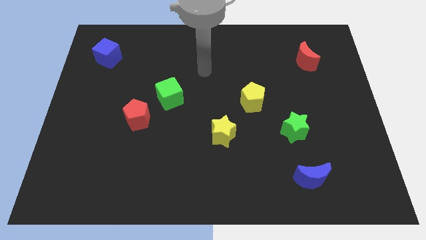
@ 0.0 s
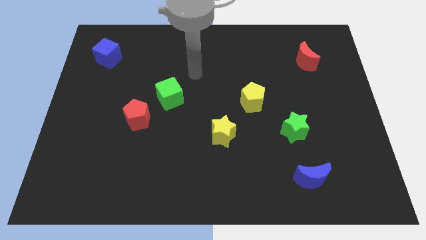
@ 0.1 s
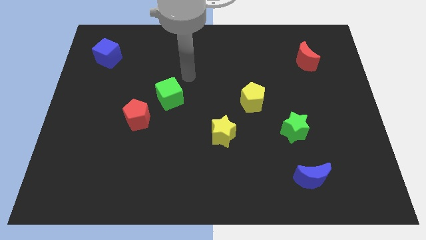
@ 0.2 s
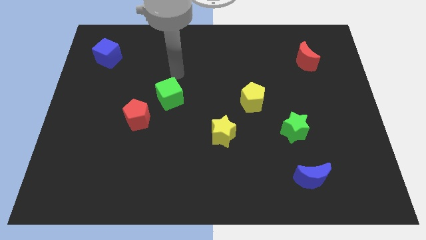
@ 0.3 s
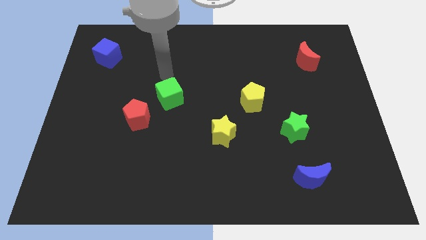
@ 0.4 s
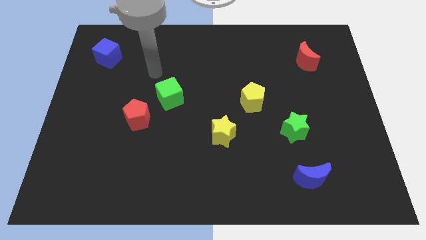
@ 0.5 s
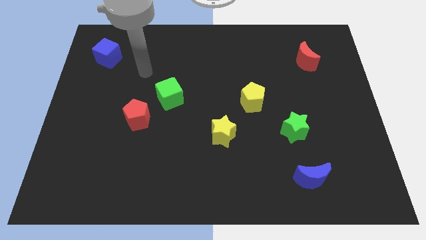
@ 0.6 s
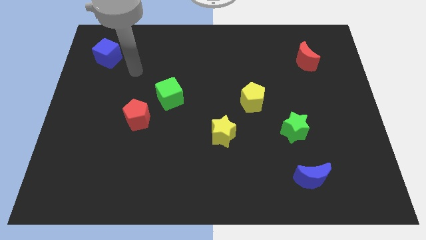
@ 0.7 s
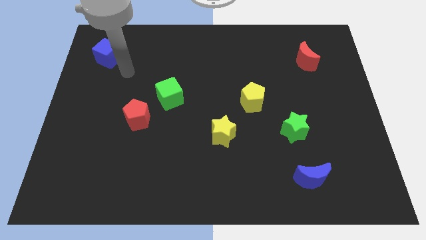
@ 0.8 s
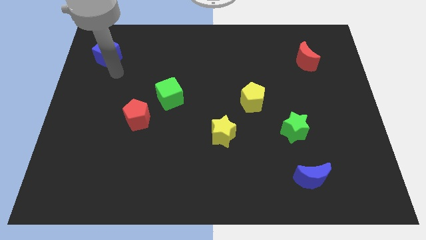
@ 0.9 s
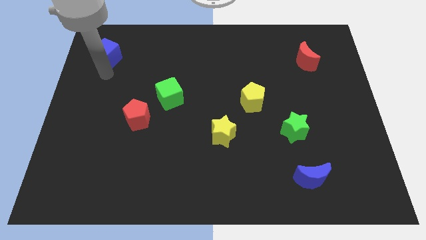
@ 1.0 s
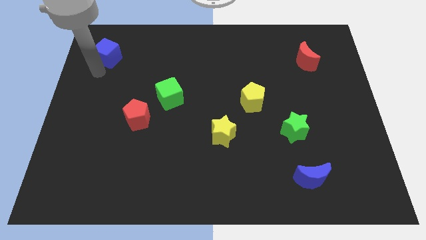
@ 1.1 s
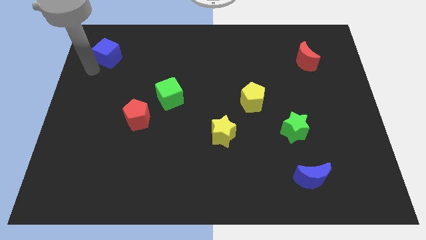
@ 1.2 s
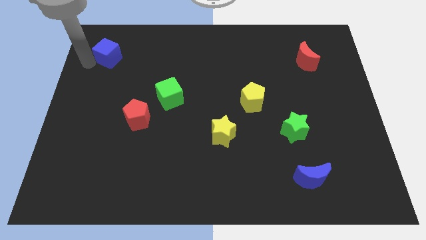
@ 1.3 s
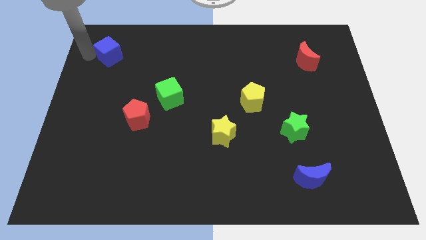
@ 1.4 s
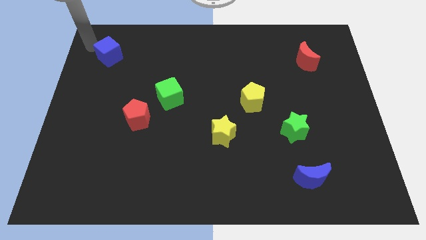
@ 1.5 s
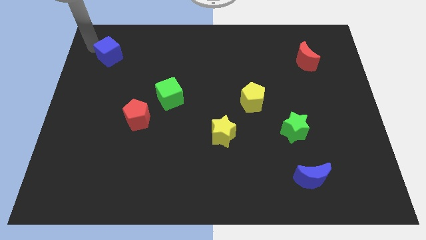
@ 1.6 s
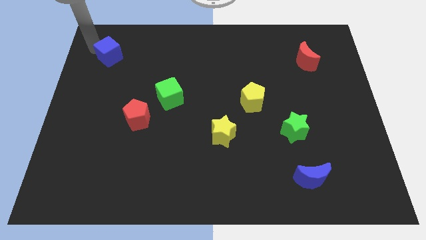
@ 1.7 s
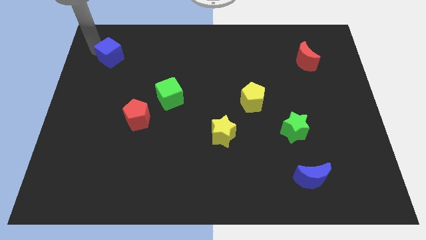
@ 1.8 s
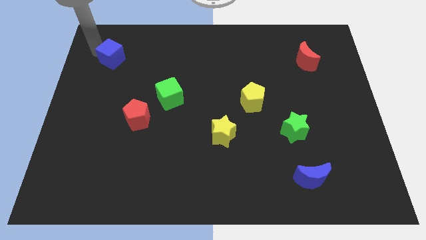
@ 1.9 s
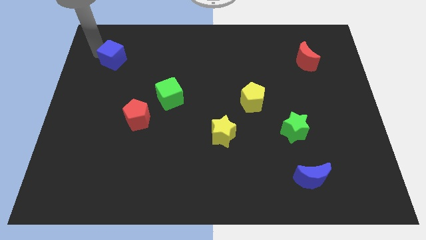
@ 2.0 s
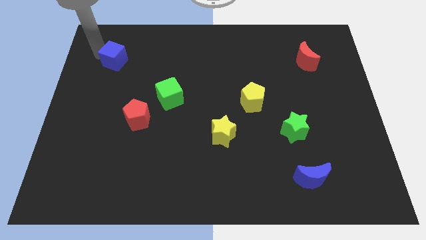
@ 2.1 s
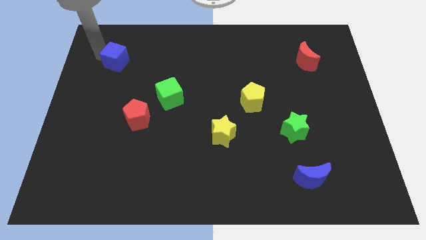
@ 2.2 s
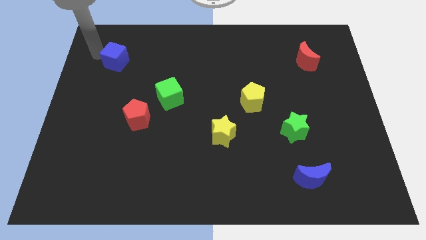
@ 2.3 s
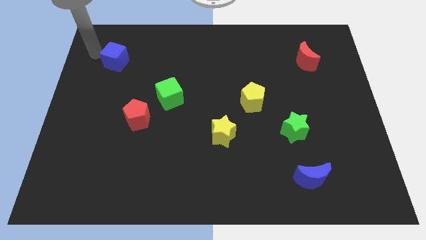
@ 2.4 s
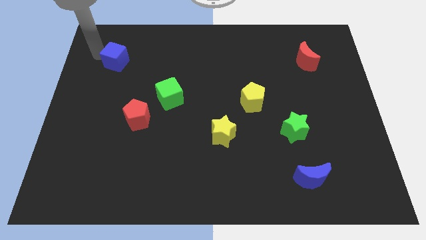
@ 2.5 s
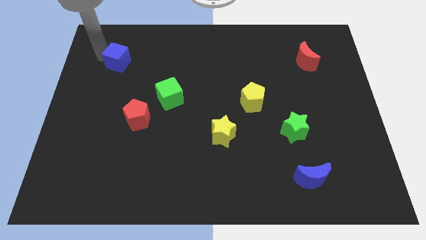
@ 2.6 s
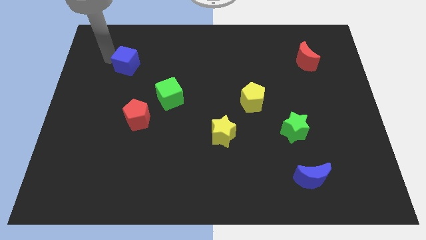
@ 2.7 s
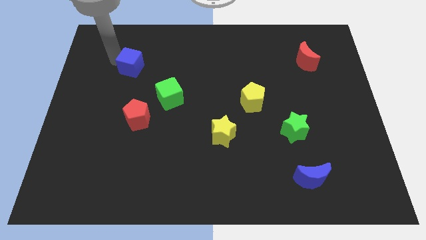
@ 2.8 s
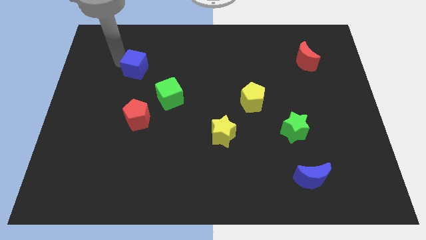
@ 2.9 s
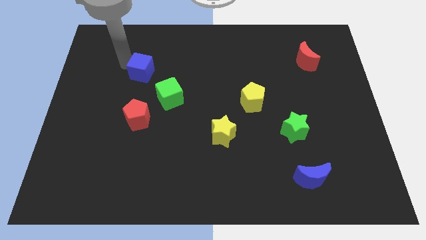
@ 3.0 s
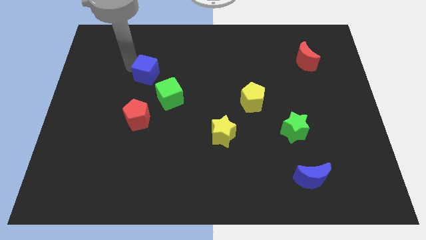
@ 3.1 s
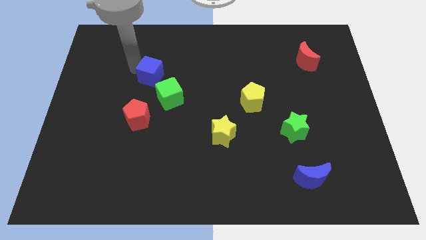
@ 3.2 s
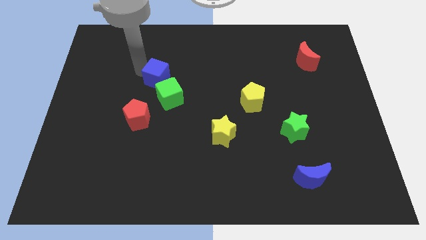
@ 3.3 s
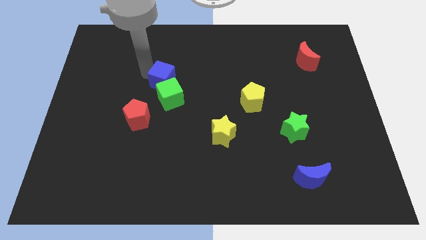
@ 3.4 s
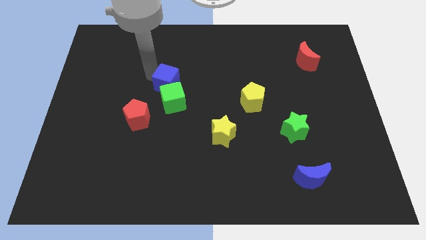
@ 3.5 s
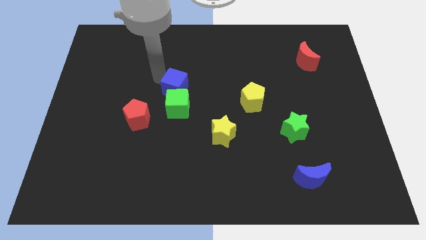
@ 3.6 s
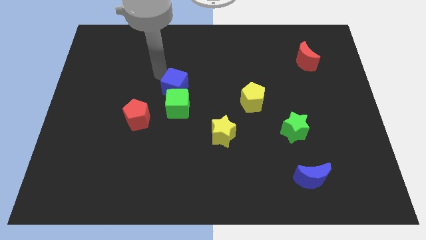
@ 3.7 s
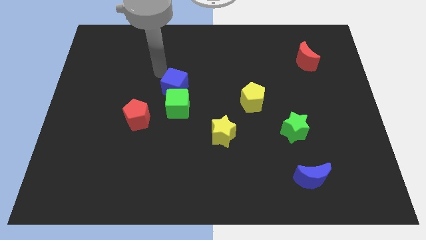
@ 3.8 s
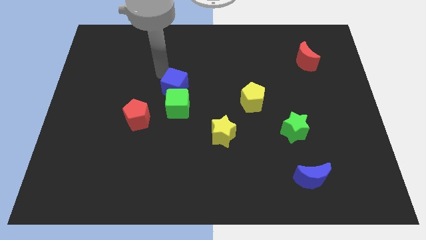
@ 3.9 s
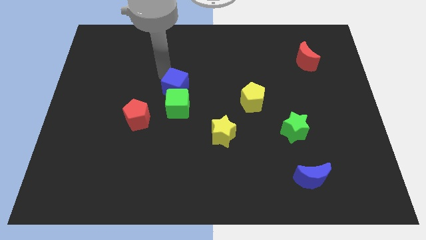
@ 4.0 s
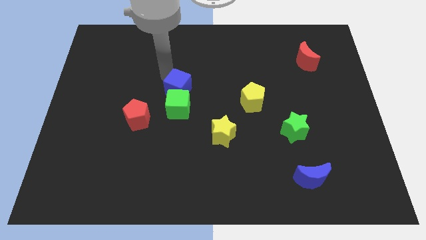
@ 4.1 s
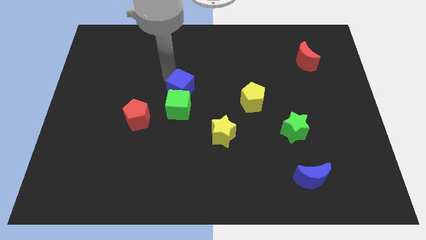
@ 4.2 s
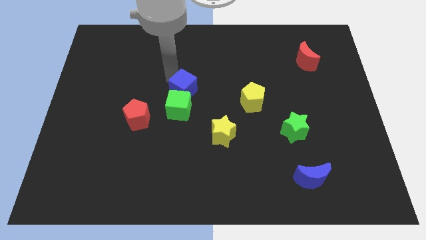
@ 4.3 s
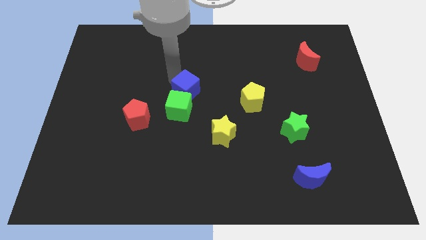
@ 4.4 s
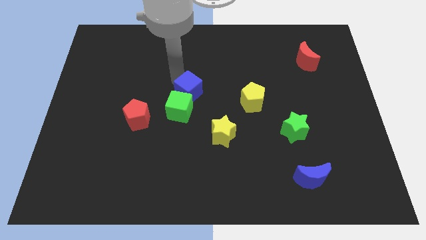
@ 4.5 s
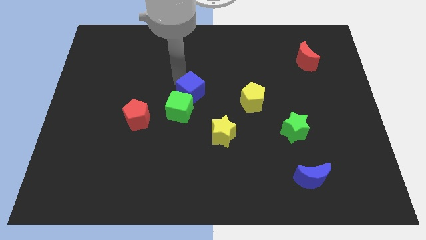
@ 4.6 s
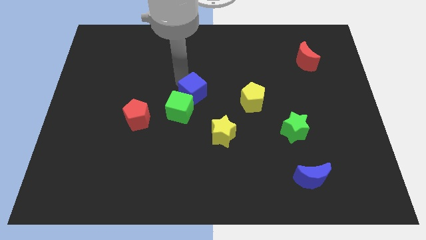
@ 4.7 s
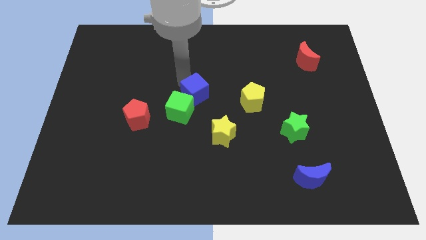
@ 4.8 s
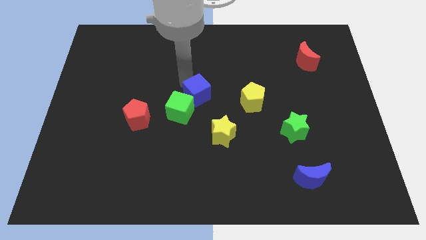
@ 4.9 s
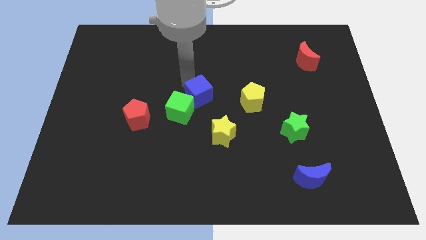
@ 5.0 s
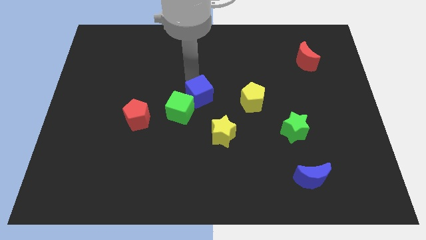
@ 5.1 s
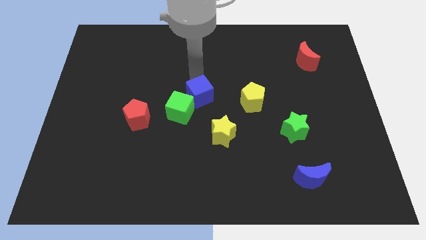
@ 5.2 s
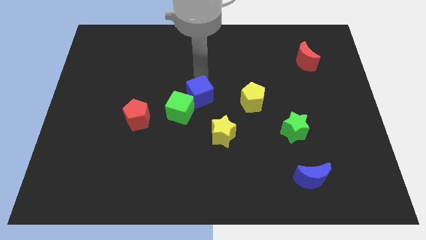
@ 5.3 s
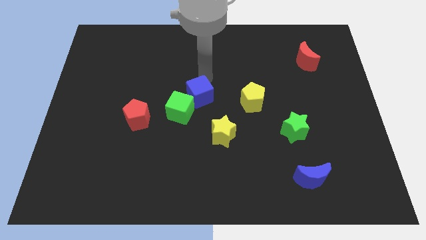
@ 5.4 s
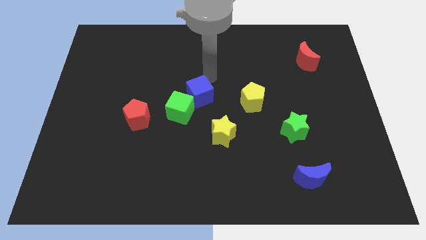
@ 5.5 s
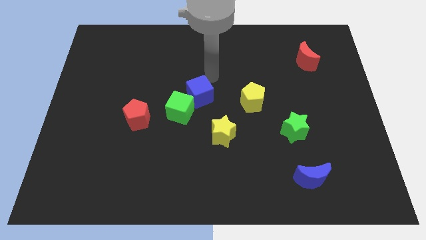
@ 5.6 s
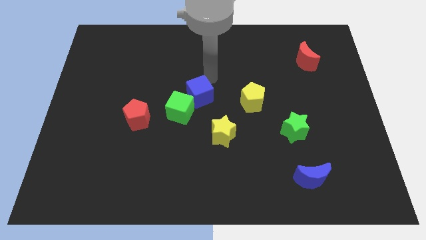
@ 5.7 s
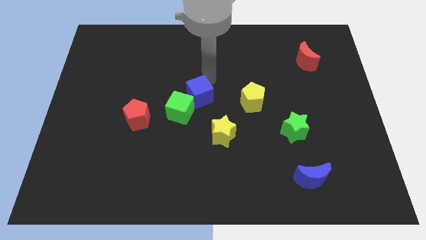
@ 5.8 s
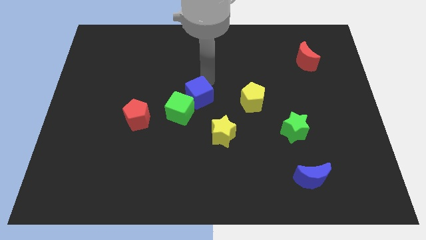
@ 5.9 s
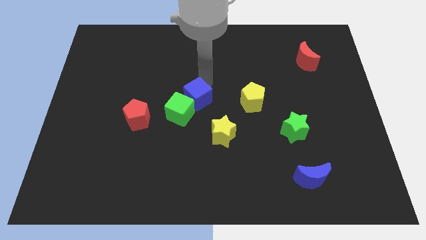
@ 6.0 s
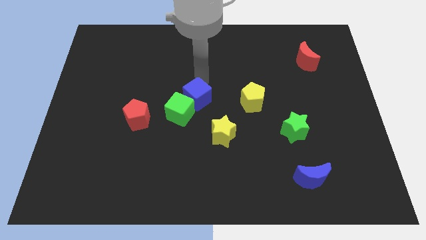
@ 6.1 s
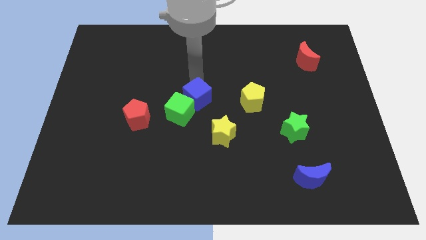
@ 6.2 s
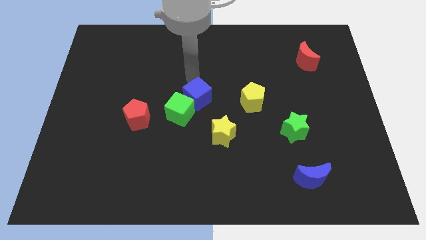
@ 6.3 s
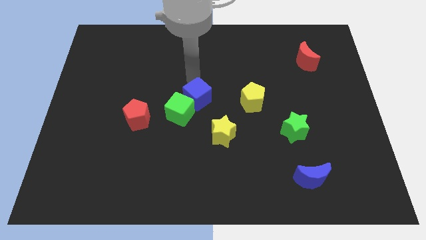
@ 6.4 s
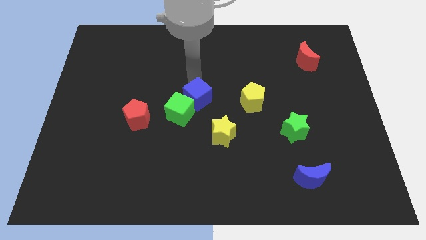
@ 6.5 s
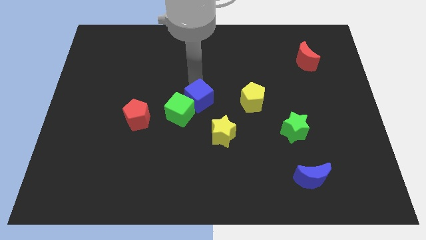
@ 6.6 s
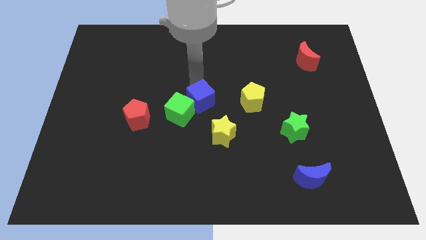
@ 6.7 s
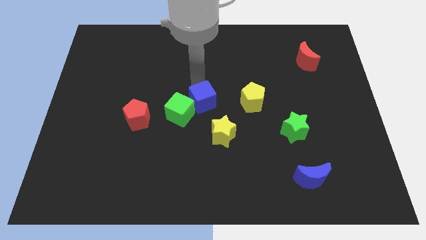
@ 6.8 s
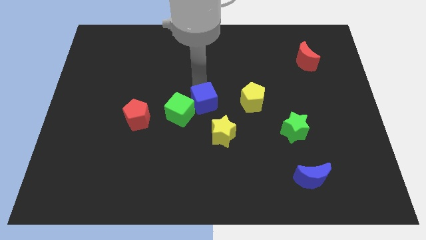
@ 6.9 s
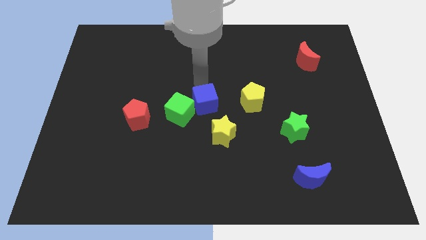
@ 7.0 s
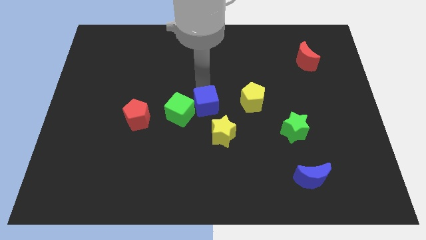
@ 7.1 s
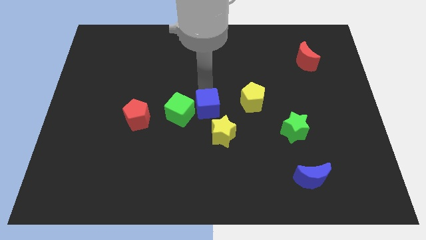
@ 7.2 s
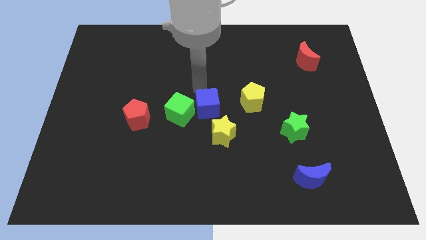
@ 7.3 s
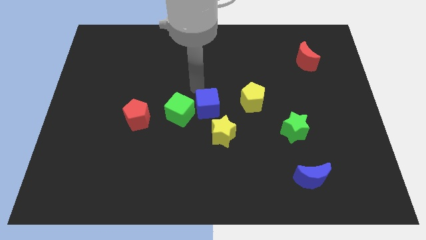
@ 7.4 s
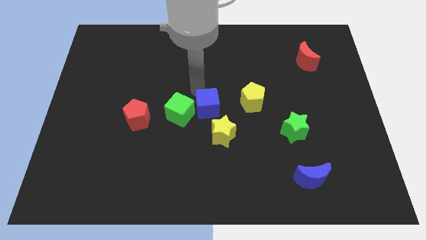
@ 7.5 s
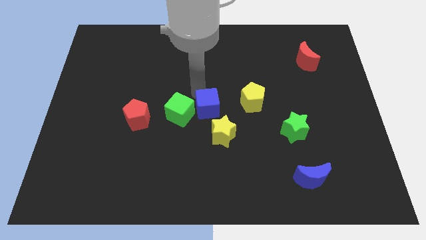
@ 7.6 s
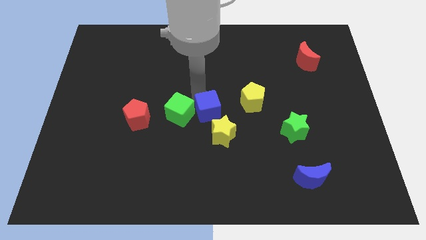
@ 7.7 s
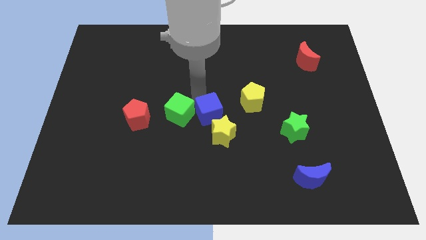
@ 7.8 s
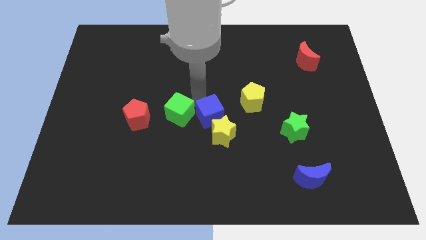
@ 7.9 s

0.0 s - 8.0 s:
slide the blue cube to the yellow star
